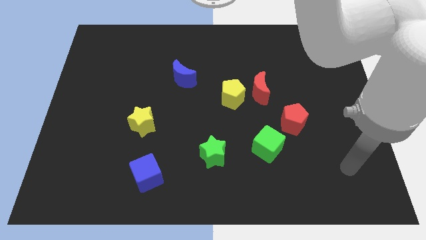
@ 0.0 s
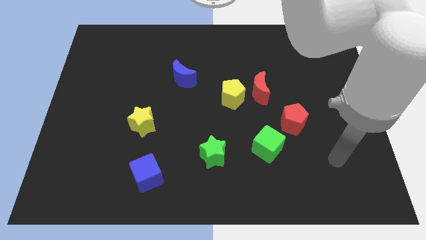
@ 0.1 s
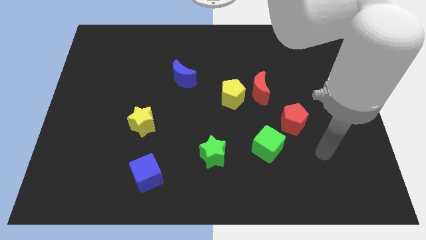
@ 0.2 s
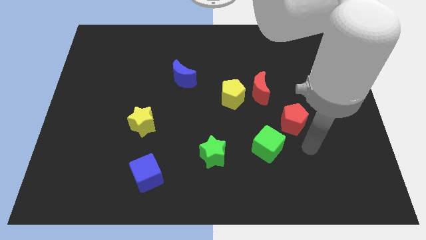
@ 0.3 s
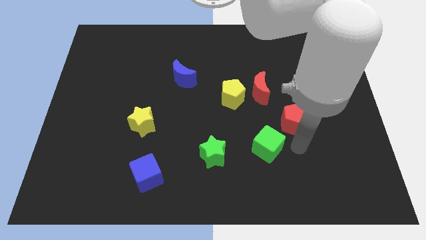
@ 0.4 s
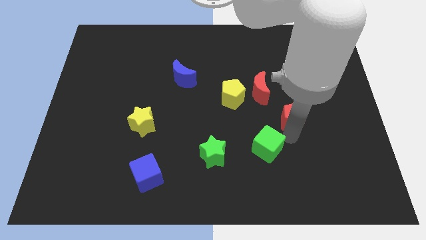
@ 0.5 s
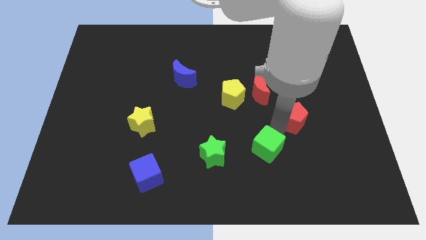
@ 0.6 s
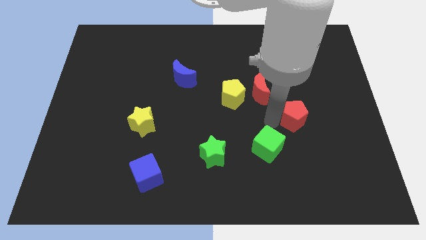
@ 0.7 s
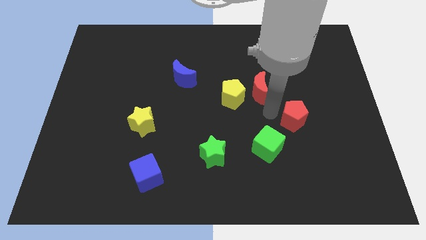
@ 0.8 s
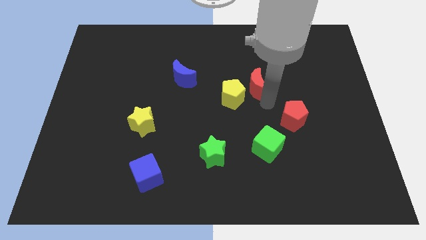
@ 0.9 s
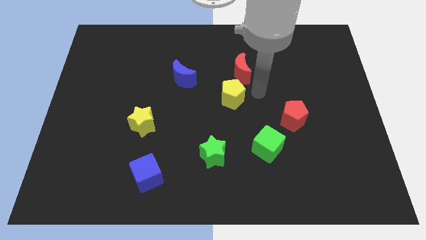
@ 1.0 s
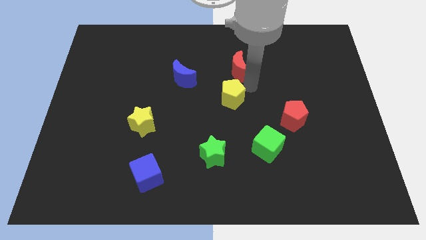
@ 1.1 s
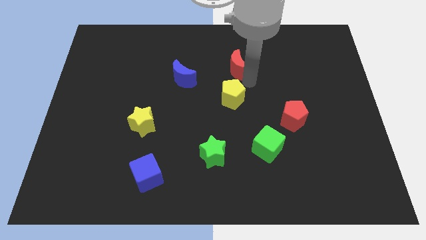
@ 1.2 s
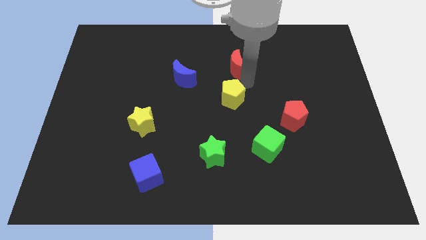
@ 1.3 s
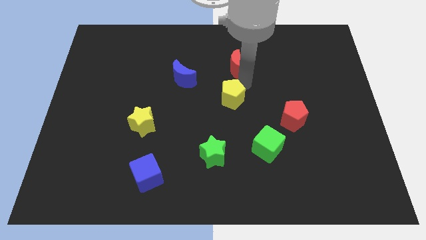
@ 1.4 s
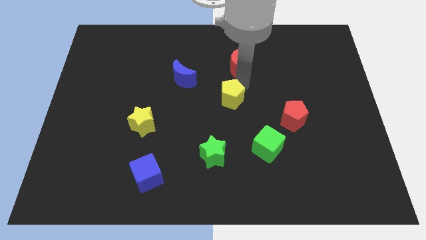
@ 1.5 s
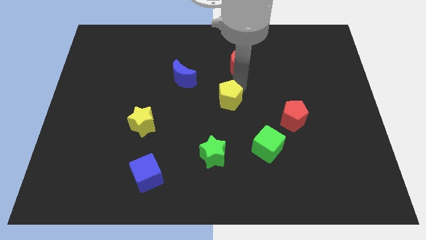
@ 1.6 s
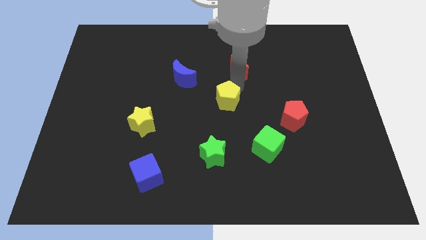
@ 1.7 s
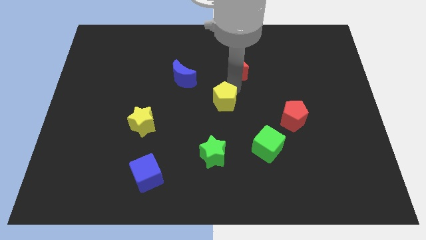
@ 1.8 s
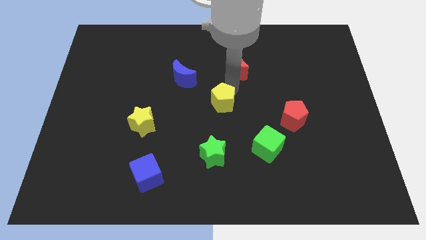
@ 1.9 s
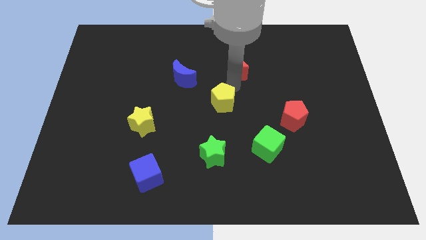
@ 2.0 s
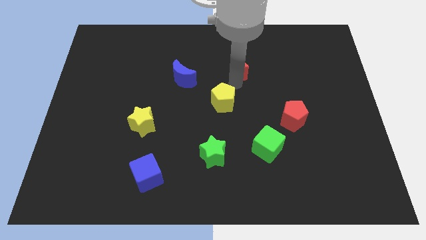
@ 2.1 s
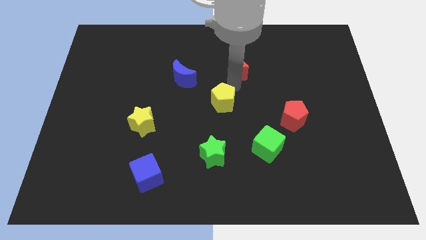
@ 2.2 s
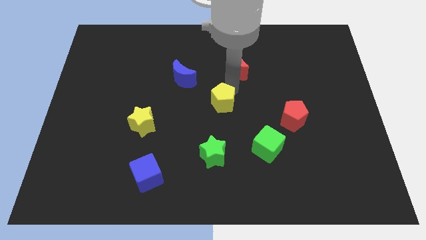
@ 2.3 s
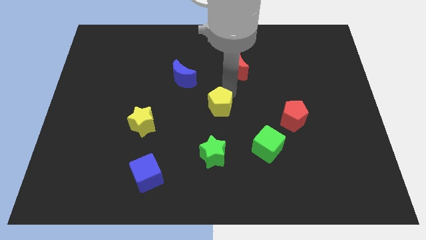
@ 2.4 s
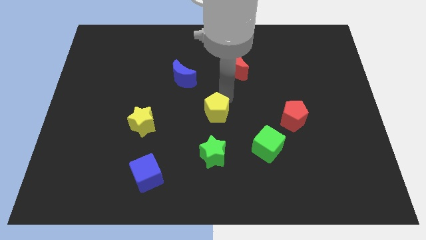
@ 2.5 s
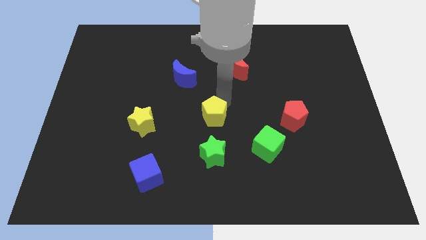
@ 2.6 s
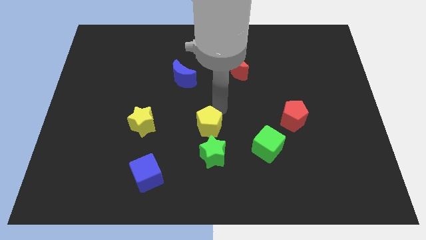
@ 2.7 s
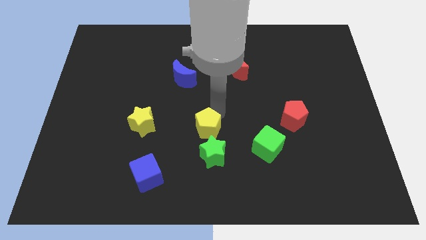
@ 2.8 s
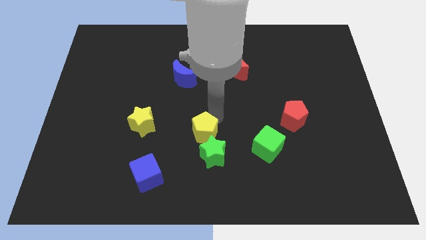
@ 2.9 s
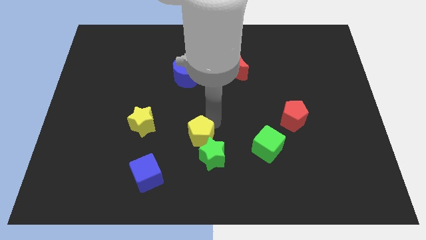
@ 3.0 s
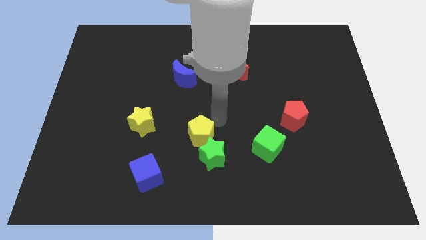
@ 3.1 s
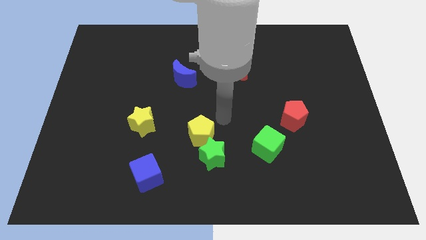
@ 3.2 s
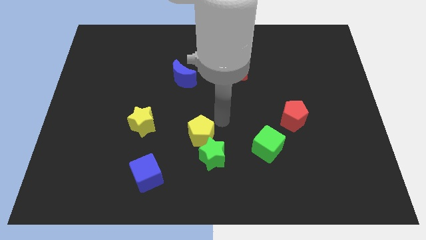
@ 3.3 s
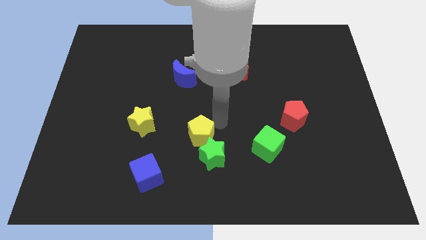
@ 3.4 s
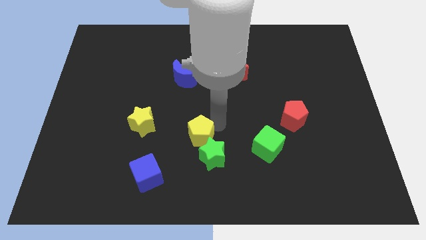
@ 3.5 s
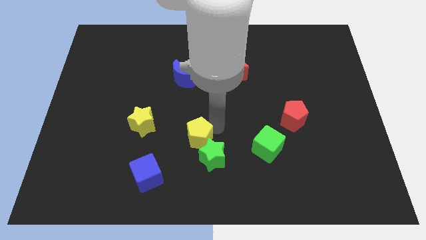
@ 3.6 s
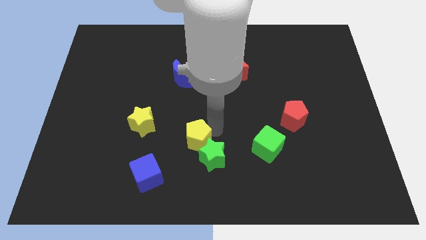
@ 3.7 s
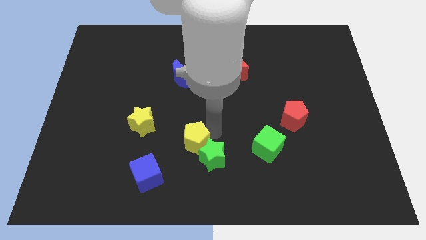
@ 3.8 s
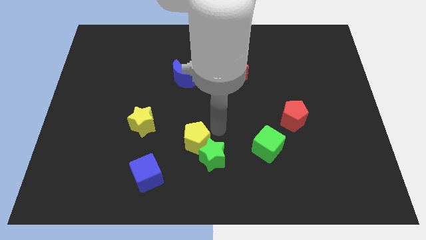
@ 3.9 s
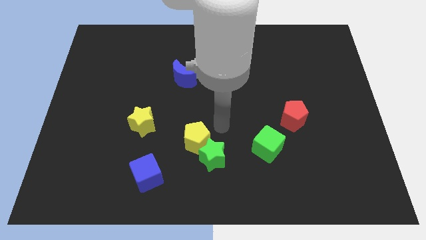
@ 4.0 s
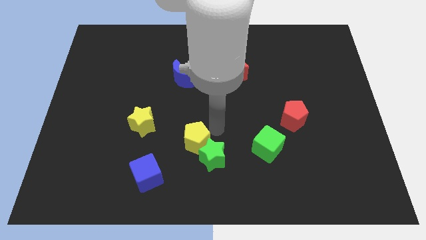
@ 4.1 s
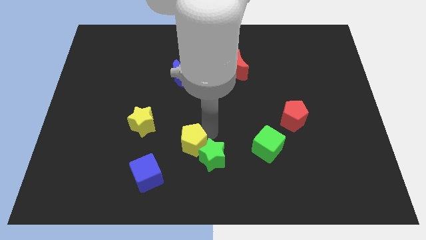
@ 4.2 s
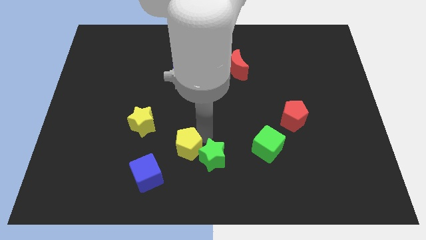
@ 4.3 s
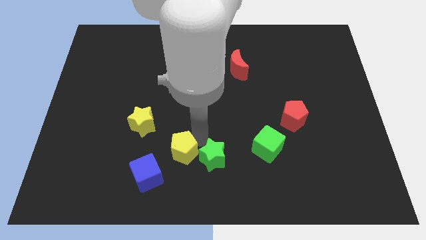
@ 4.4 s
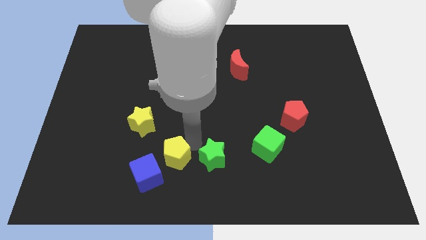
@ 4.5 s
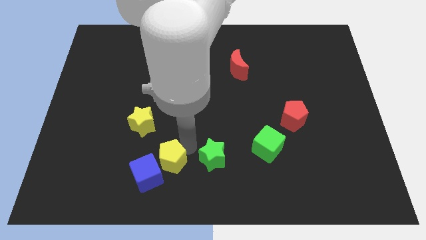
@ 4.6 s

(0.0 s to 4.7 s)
push the yellow pentagon next to the blue cube

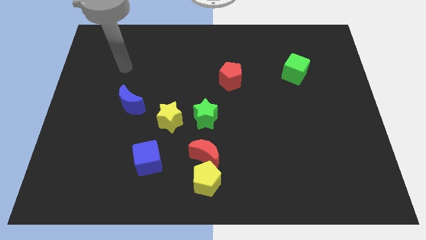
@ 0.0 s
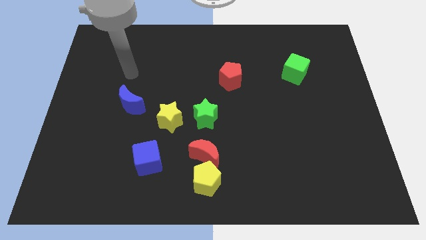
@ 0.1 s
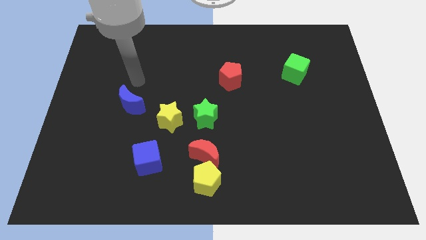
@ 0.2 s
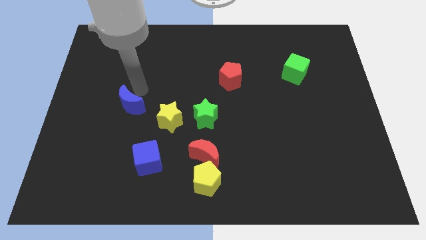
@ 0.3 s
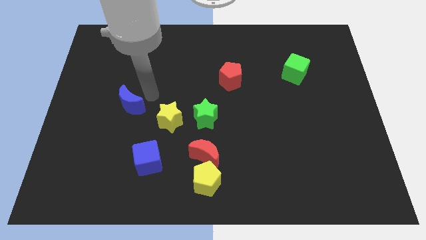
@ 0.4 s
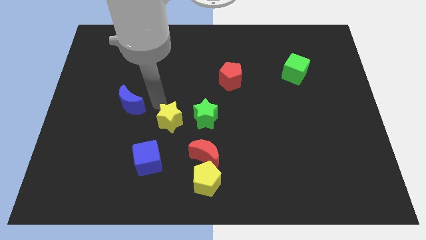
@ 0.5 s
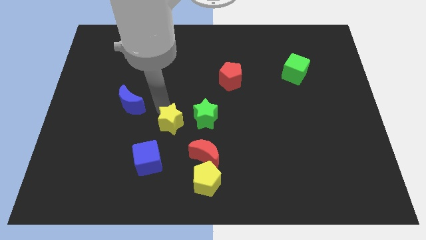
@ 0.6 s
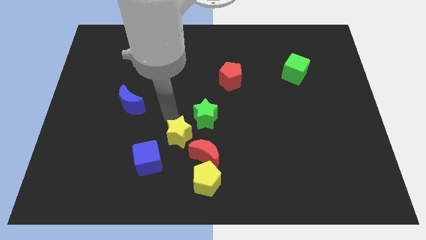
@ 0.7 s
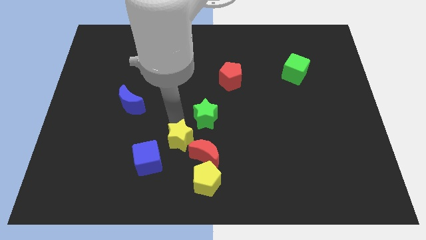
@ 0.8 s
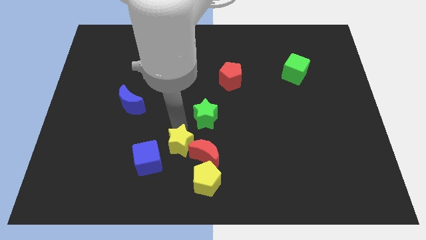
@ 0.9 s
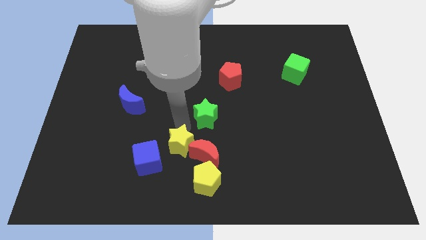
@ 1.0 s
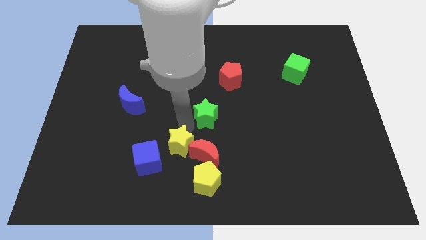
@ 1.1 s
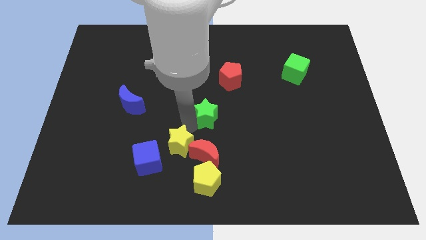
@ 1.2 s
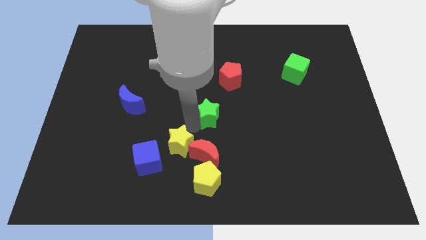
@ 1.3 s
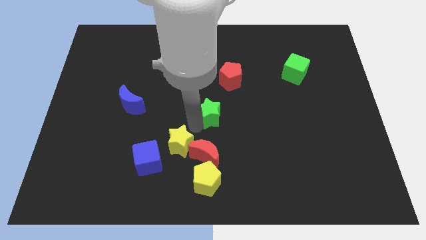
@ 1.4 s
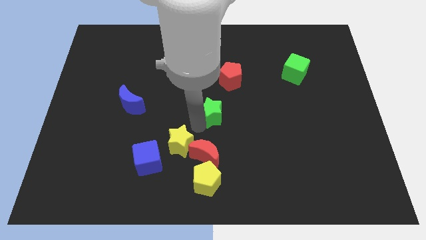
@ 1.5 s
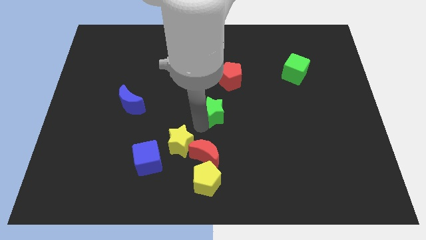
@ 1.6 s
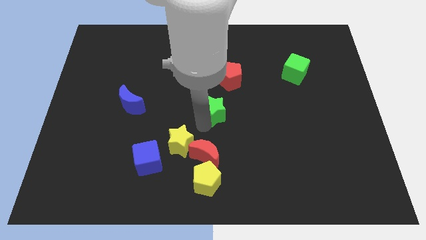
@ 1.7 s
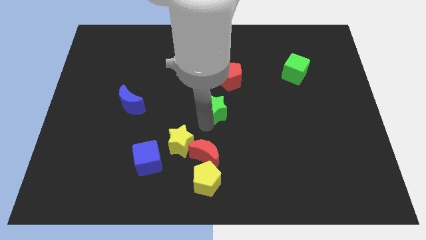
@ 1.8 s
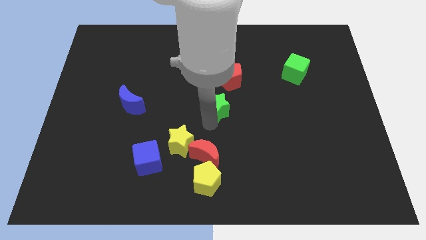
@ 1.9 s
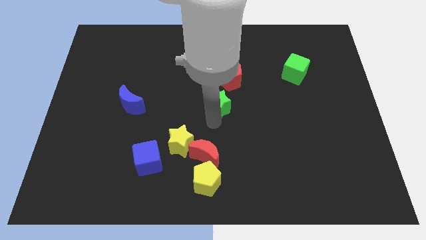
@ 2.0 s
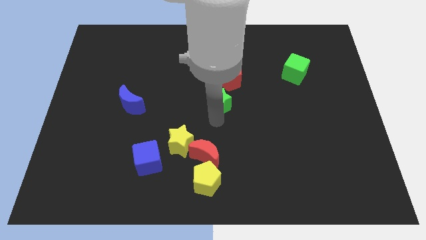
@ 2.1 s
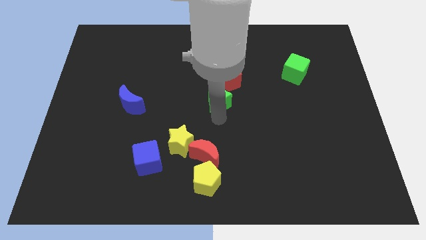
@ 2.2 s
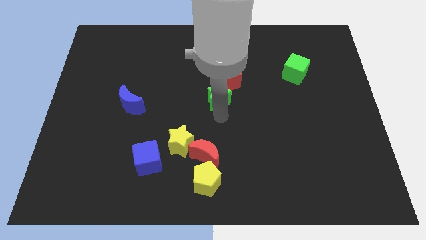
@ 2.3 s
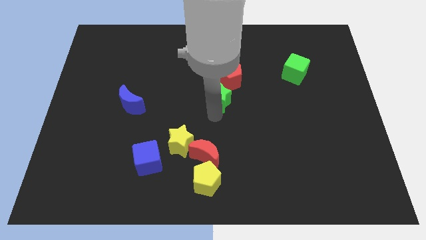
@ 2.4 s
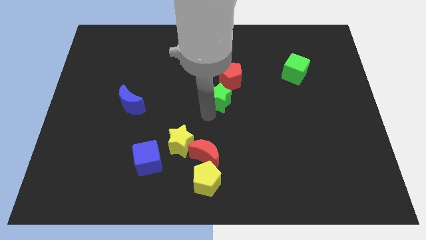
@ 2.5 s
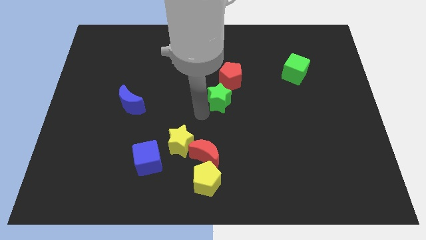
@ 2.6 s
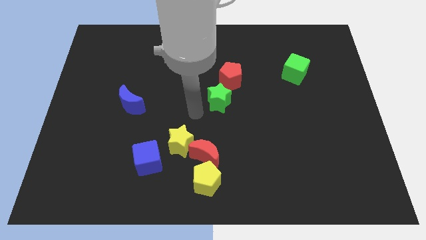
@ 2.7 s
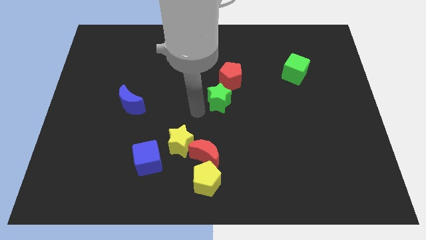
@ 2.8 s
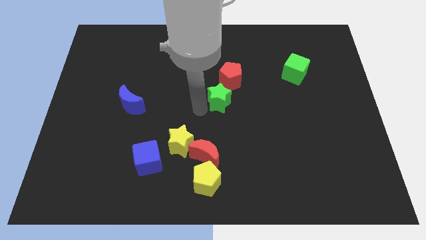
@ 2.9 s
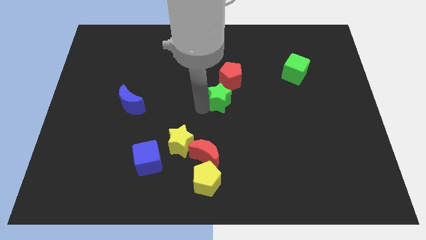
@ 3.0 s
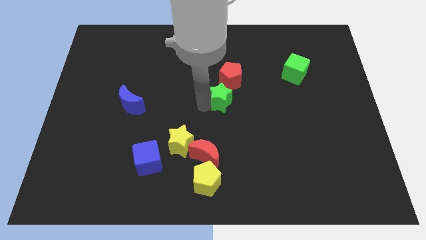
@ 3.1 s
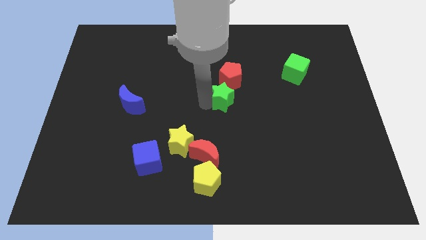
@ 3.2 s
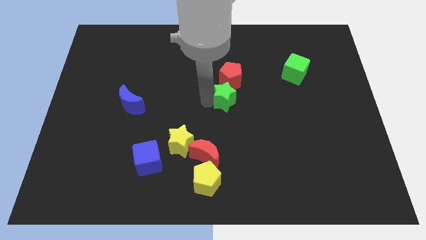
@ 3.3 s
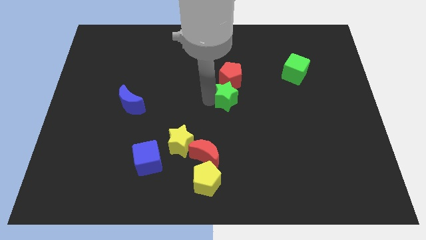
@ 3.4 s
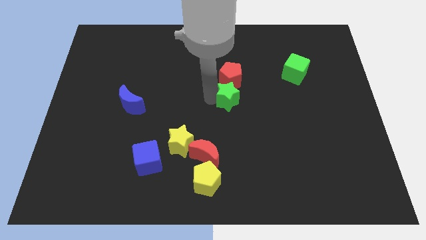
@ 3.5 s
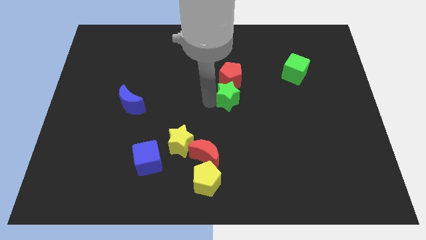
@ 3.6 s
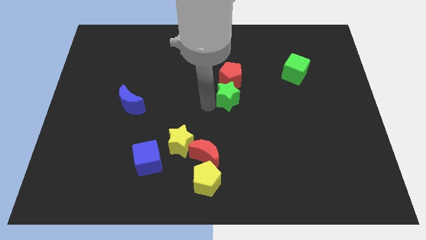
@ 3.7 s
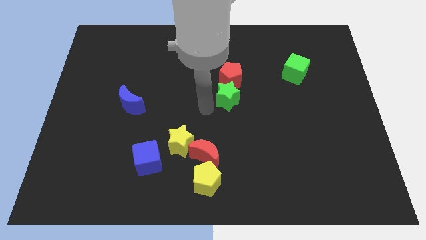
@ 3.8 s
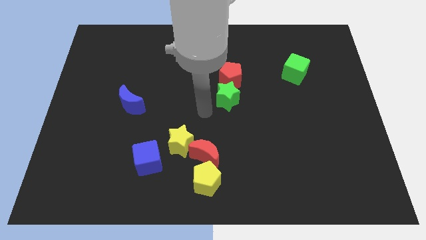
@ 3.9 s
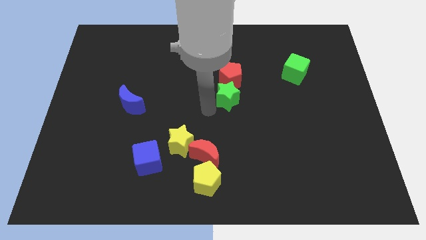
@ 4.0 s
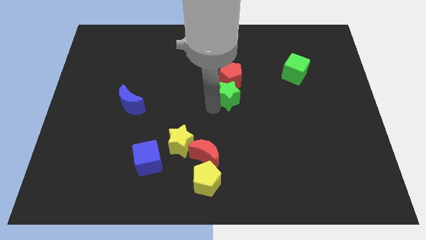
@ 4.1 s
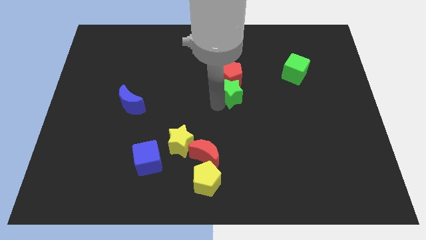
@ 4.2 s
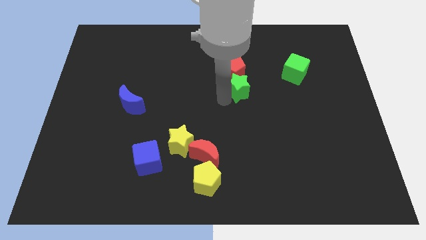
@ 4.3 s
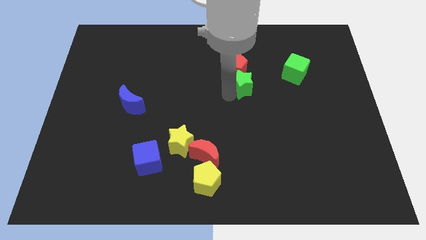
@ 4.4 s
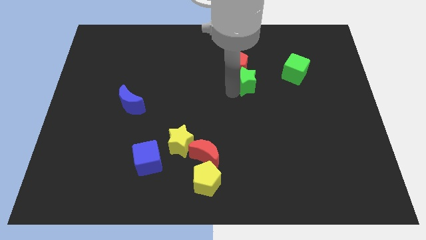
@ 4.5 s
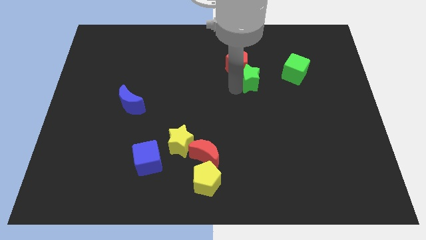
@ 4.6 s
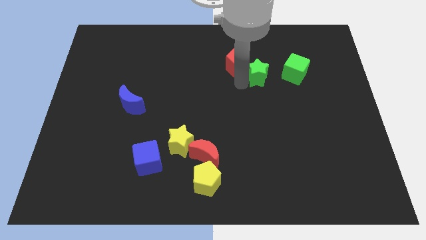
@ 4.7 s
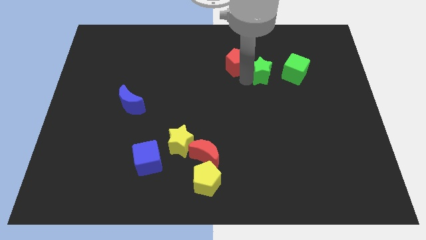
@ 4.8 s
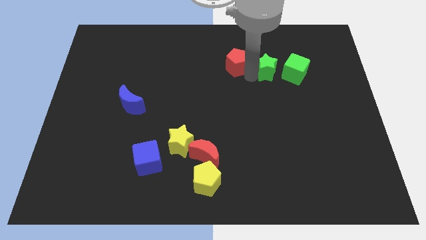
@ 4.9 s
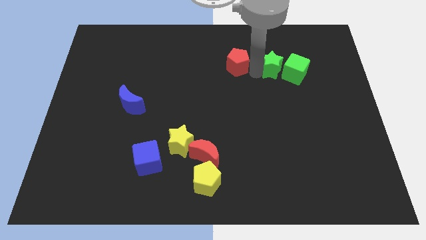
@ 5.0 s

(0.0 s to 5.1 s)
slide the green star towards the green cube
